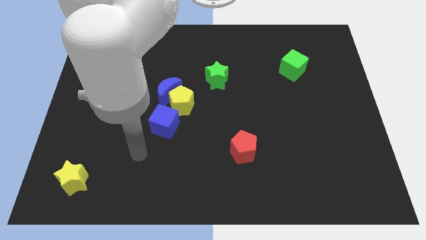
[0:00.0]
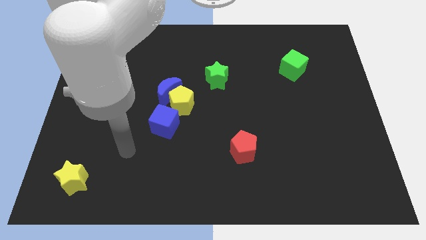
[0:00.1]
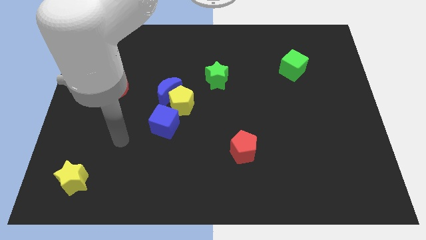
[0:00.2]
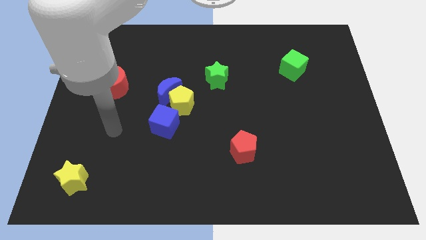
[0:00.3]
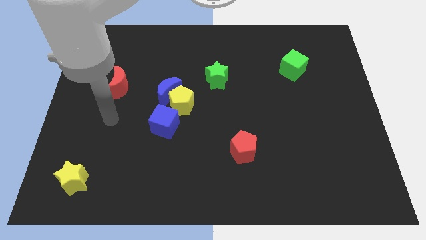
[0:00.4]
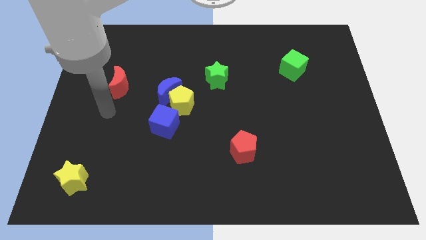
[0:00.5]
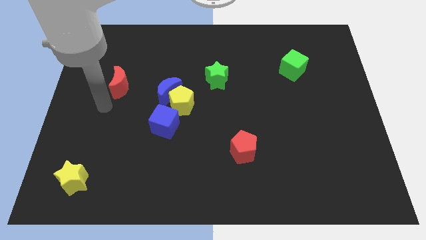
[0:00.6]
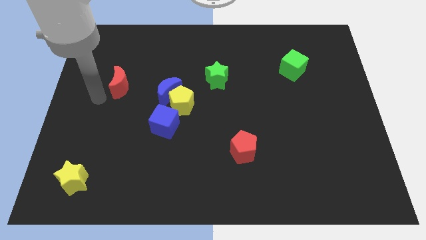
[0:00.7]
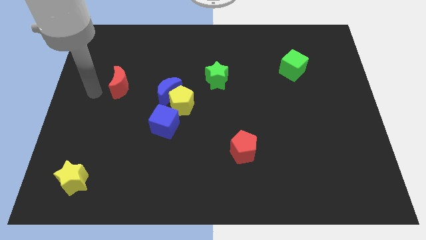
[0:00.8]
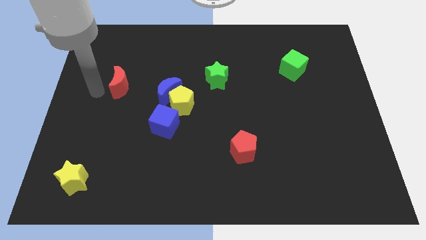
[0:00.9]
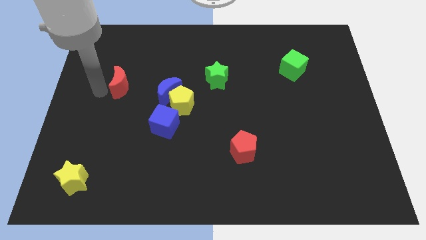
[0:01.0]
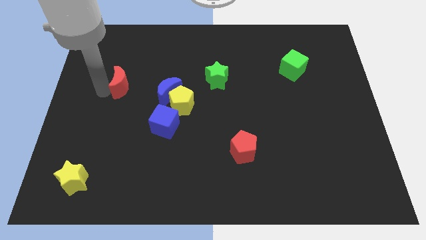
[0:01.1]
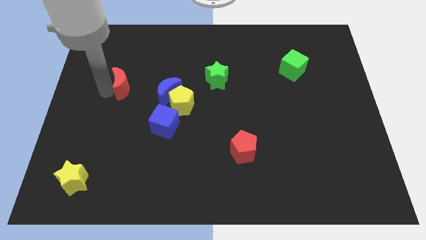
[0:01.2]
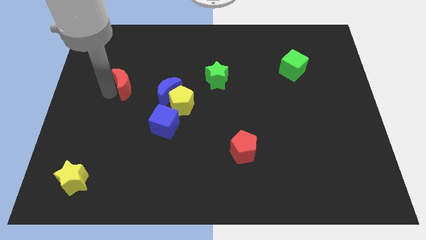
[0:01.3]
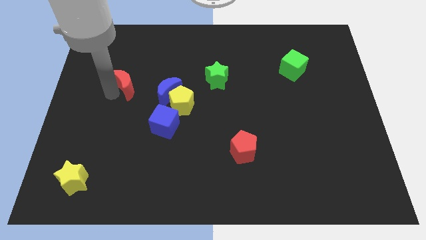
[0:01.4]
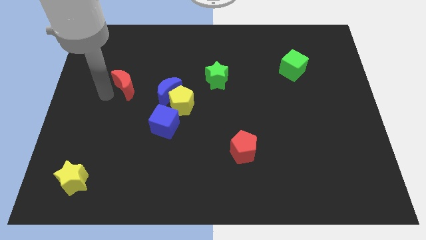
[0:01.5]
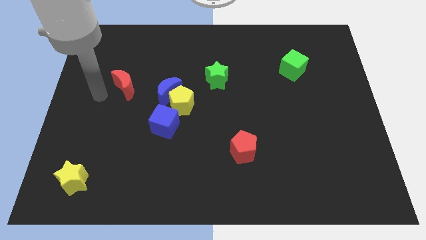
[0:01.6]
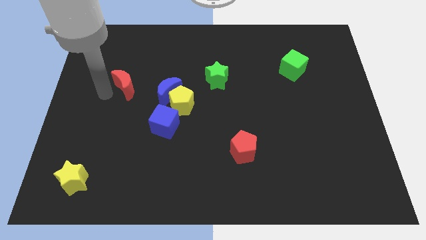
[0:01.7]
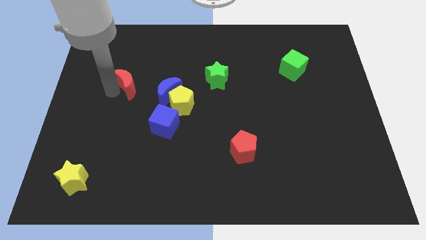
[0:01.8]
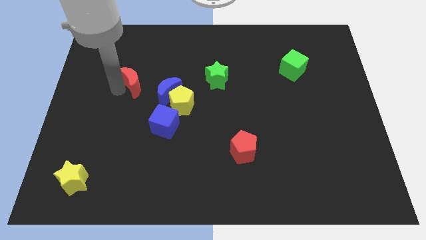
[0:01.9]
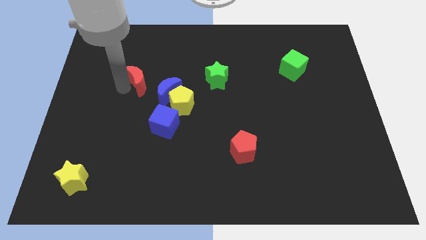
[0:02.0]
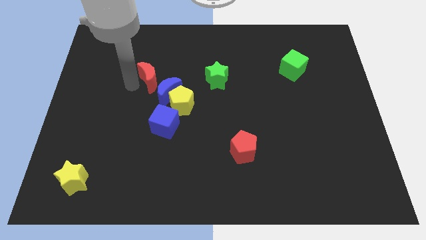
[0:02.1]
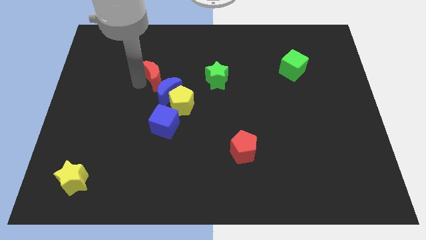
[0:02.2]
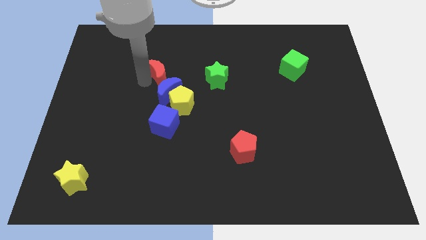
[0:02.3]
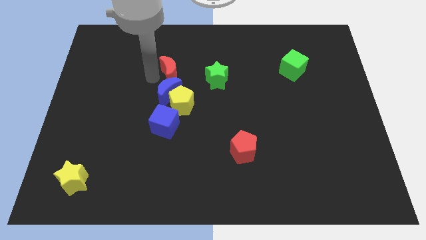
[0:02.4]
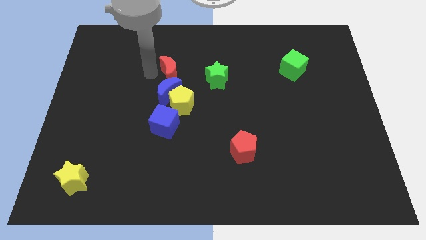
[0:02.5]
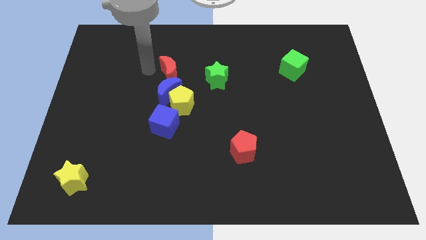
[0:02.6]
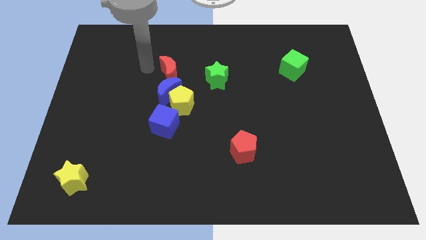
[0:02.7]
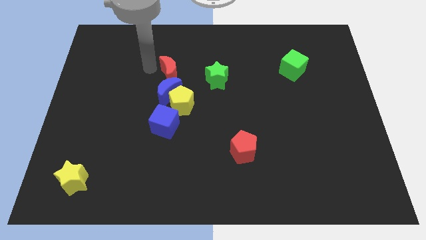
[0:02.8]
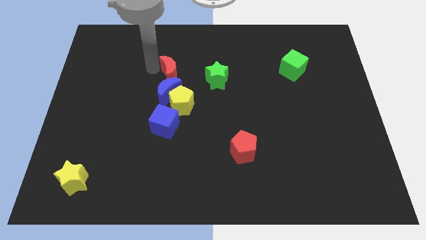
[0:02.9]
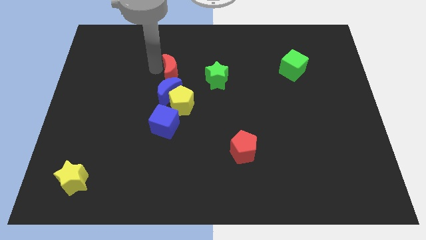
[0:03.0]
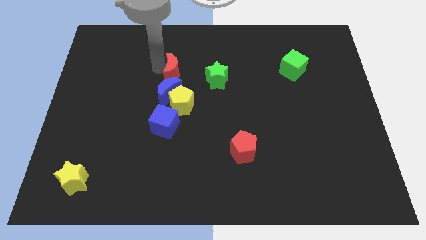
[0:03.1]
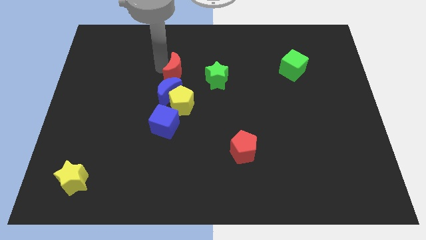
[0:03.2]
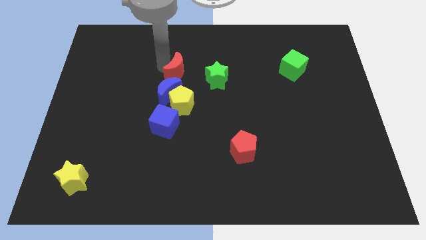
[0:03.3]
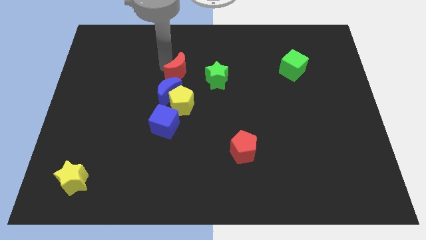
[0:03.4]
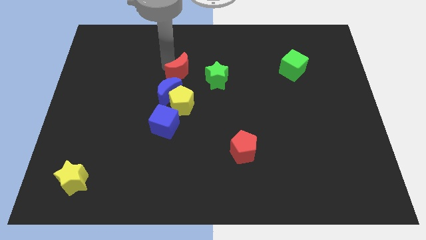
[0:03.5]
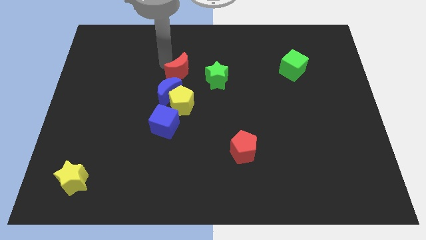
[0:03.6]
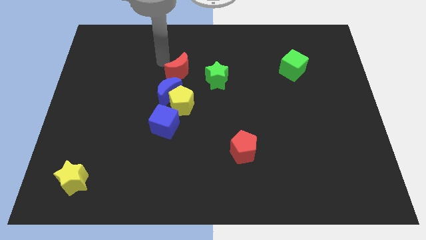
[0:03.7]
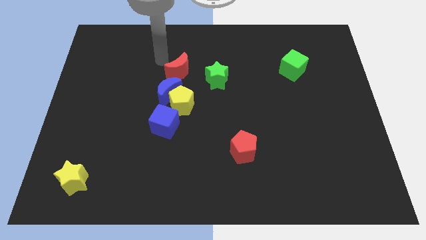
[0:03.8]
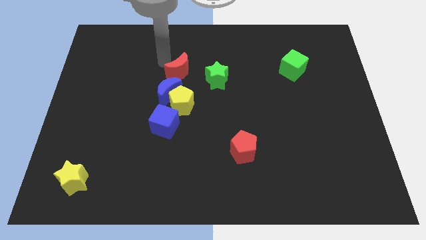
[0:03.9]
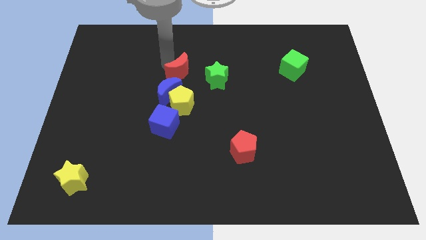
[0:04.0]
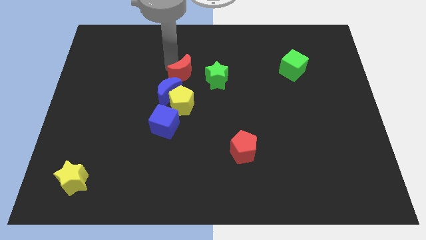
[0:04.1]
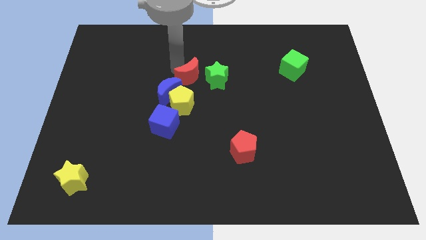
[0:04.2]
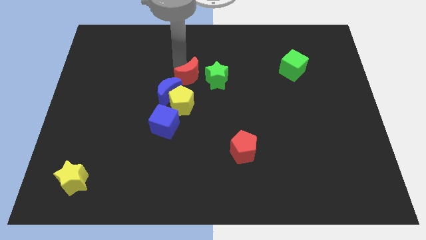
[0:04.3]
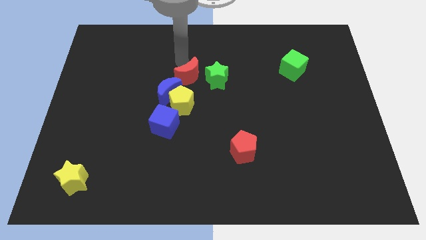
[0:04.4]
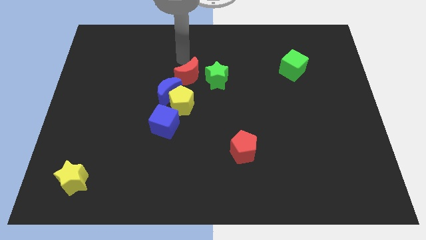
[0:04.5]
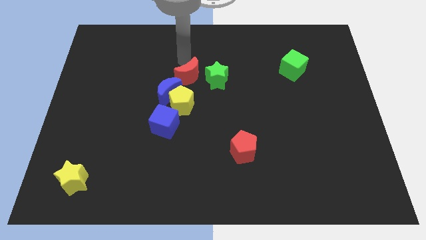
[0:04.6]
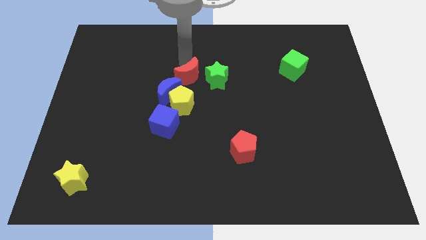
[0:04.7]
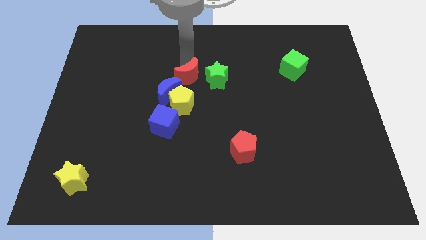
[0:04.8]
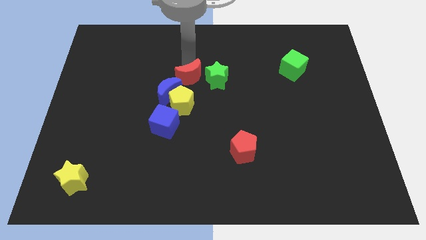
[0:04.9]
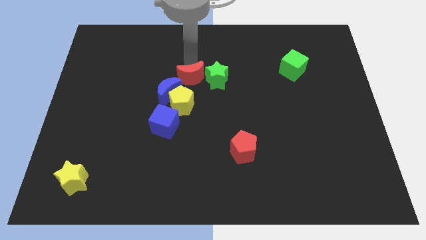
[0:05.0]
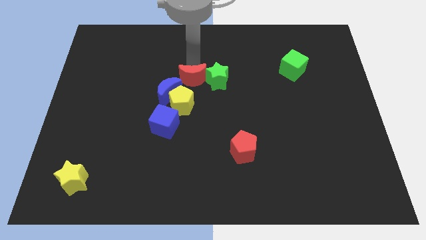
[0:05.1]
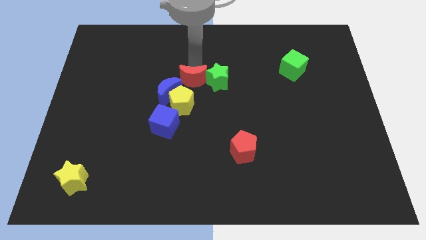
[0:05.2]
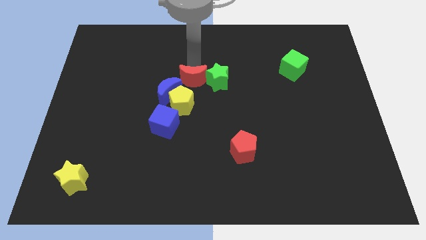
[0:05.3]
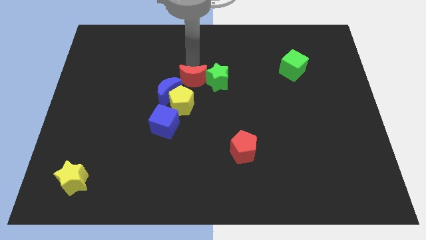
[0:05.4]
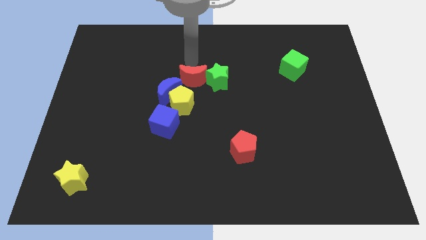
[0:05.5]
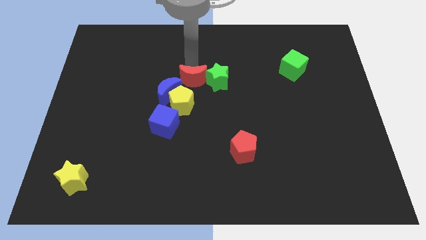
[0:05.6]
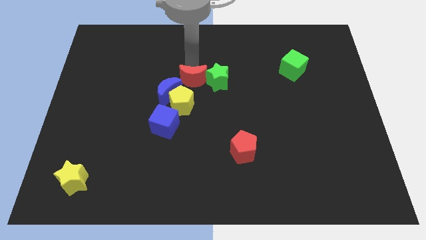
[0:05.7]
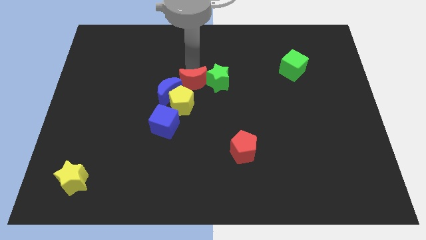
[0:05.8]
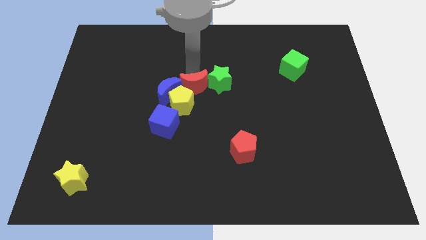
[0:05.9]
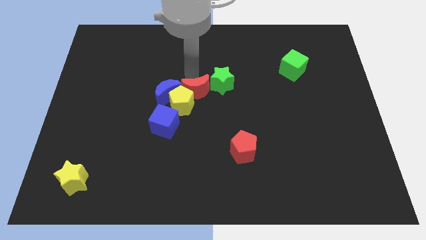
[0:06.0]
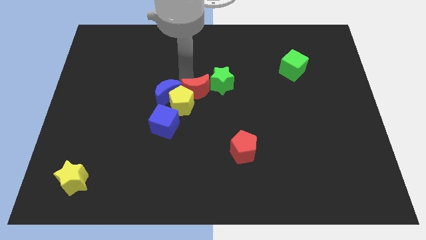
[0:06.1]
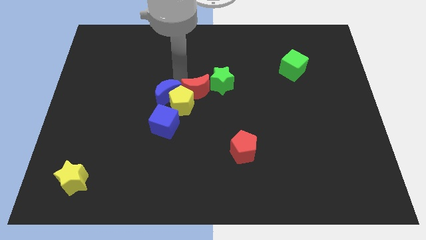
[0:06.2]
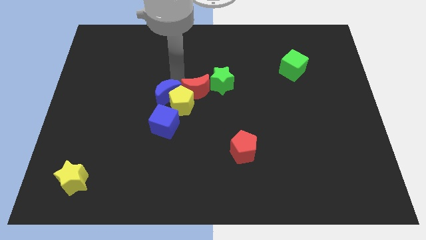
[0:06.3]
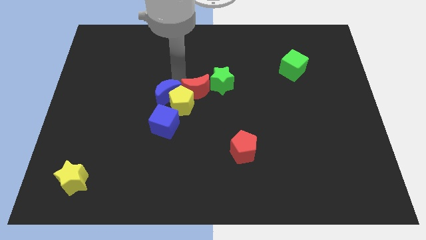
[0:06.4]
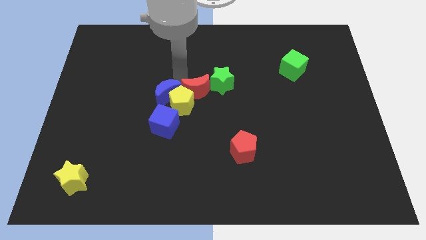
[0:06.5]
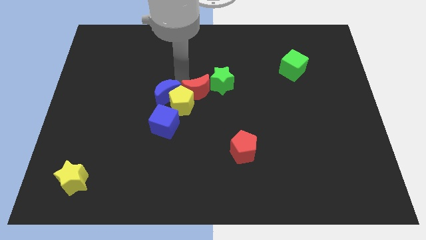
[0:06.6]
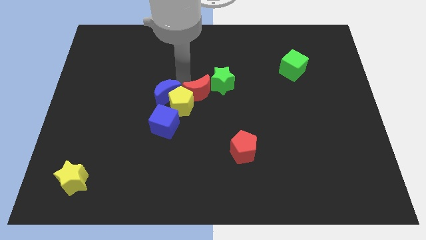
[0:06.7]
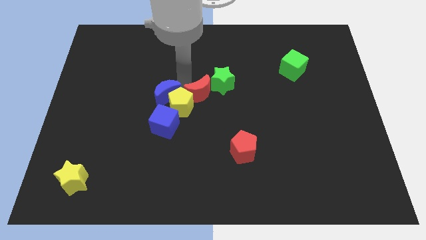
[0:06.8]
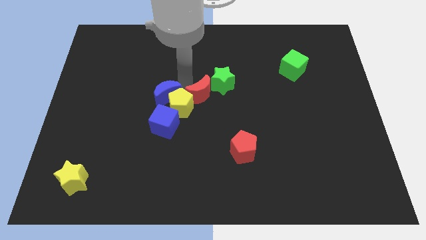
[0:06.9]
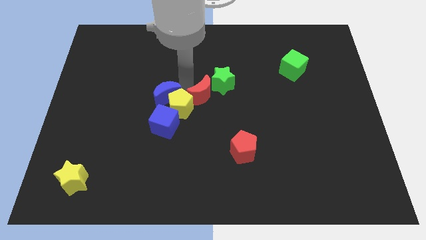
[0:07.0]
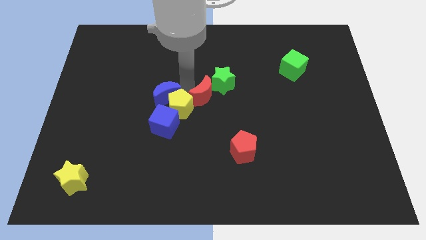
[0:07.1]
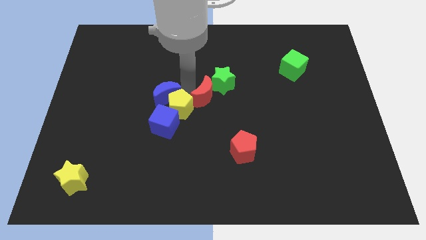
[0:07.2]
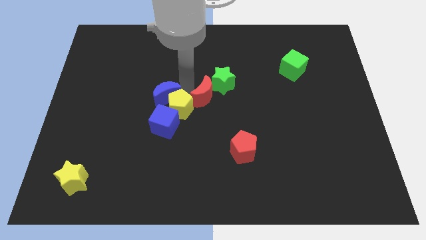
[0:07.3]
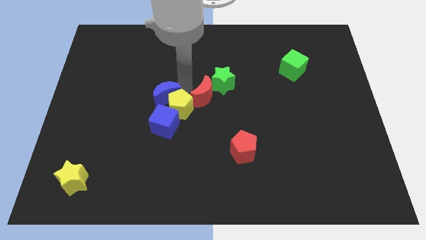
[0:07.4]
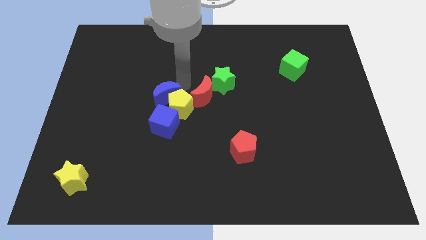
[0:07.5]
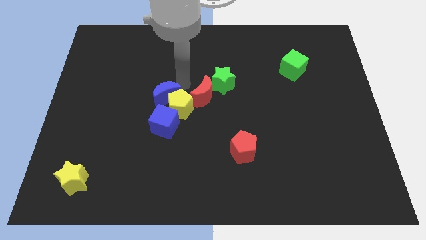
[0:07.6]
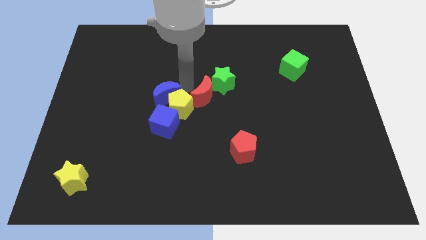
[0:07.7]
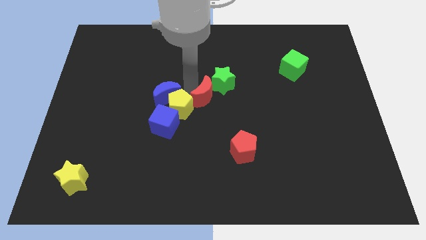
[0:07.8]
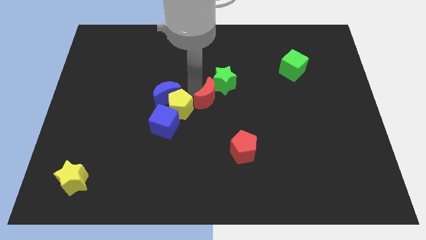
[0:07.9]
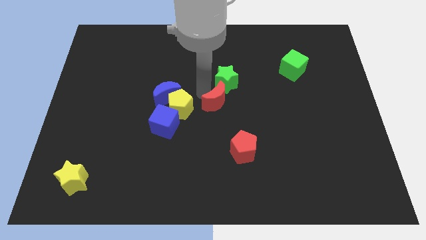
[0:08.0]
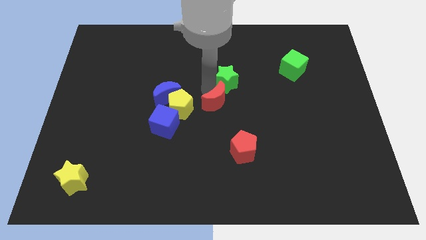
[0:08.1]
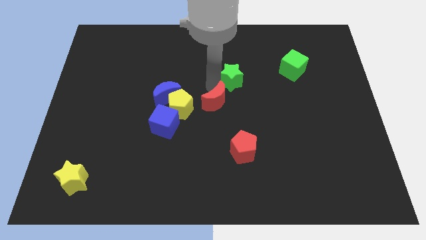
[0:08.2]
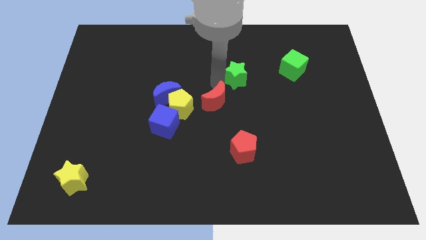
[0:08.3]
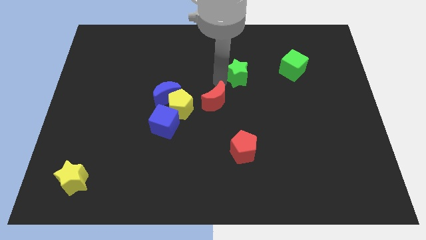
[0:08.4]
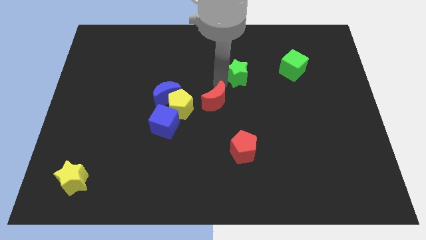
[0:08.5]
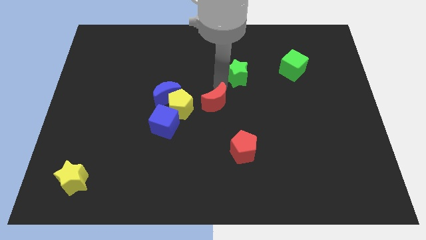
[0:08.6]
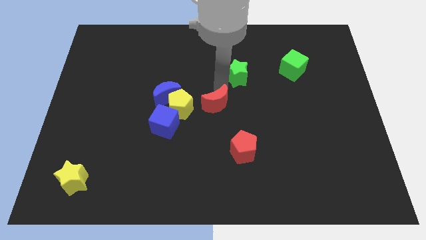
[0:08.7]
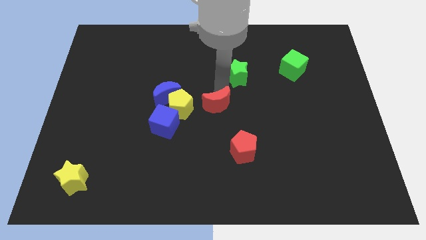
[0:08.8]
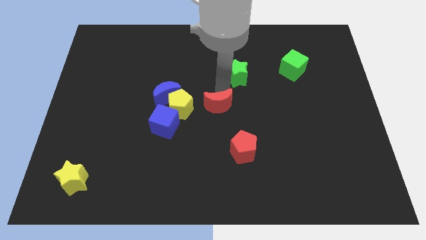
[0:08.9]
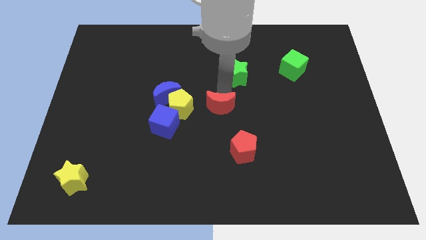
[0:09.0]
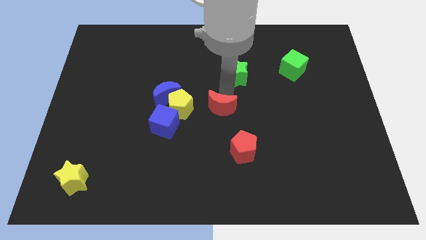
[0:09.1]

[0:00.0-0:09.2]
push the red moon right of the blue cube
